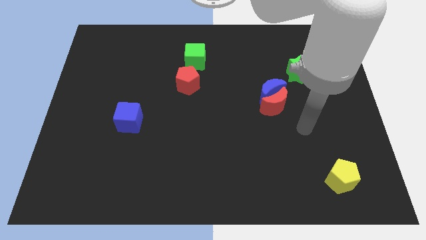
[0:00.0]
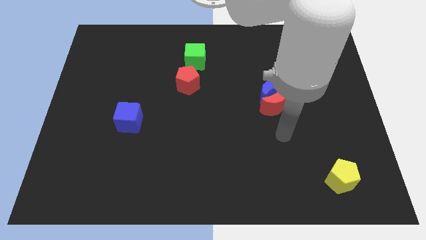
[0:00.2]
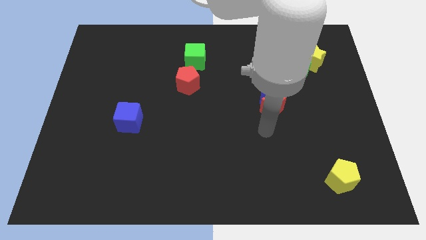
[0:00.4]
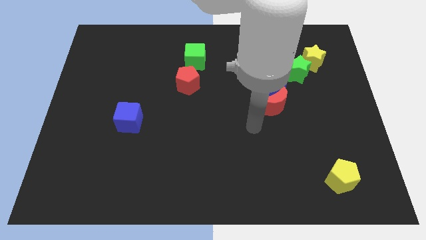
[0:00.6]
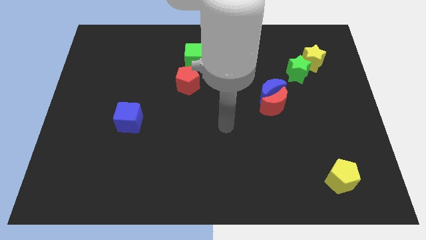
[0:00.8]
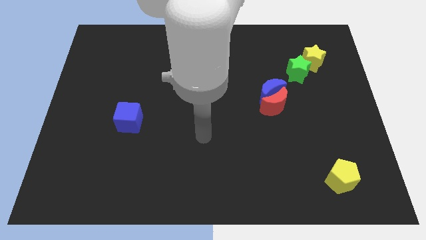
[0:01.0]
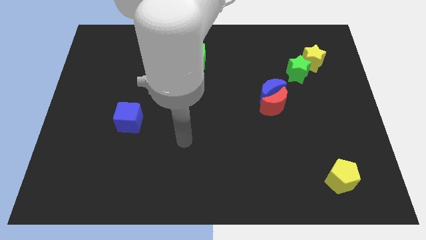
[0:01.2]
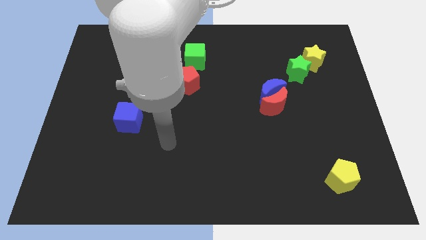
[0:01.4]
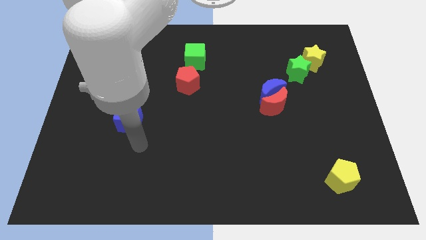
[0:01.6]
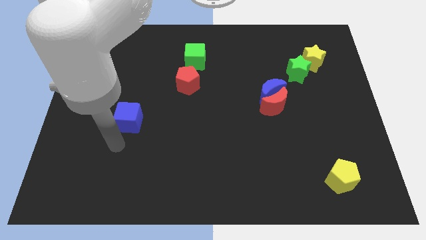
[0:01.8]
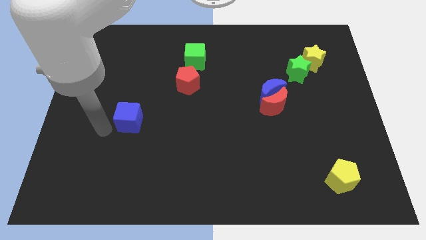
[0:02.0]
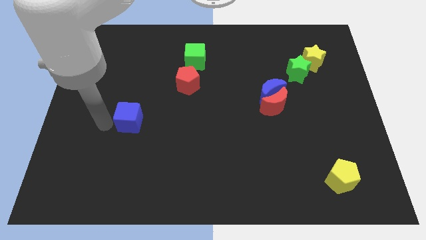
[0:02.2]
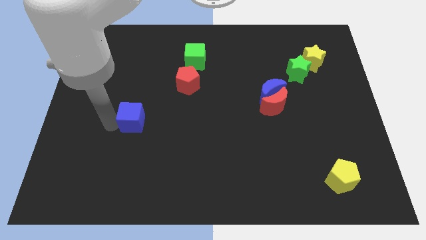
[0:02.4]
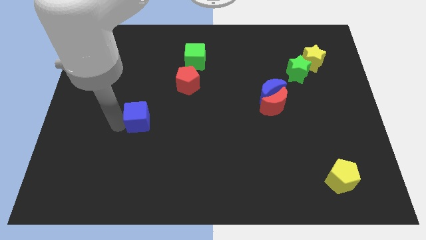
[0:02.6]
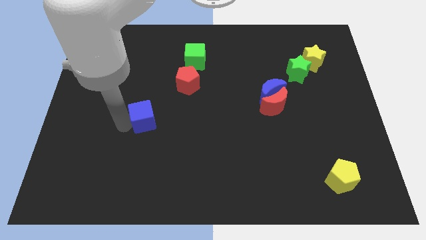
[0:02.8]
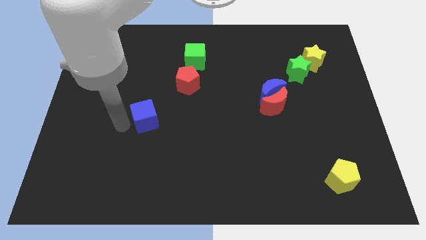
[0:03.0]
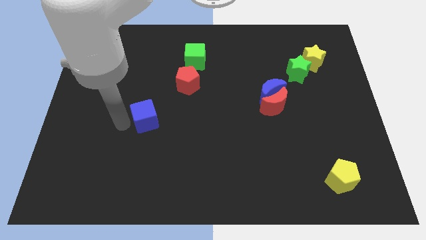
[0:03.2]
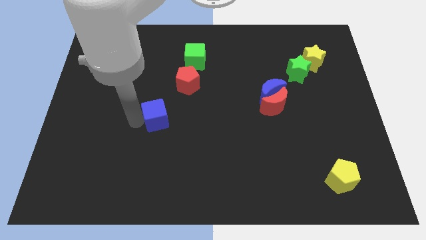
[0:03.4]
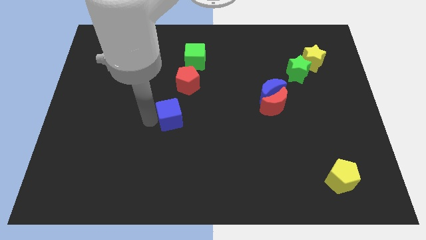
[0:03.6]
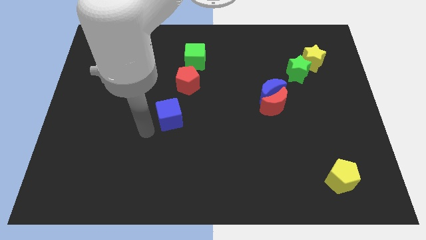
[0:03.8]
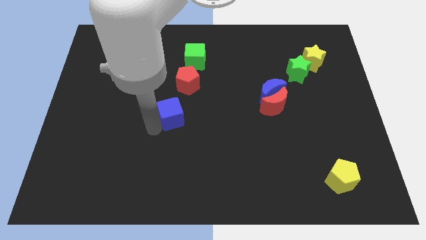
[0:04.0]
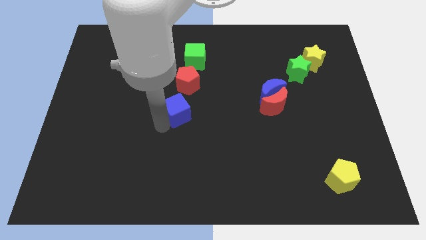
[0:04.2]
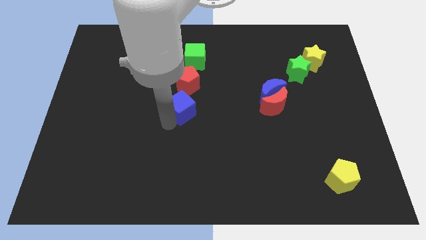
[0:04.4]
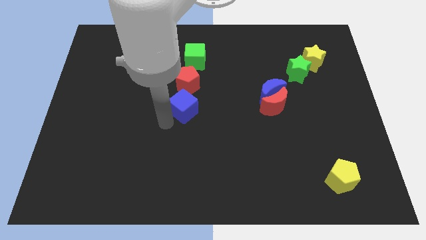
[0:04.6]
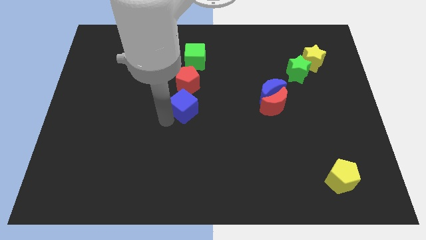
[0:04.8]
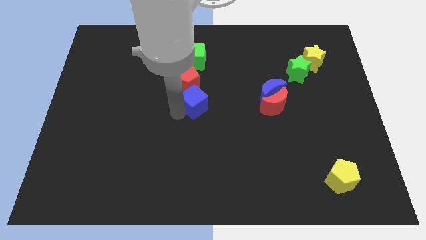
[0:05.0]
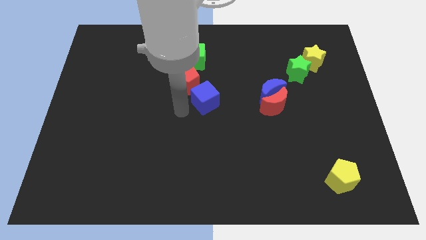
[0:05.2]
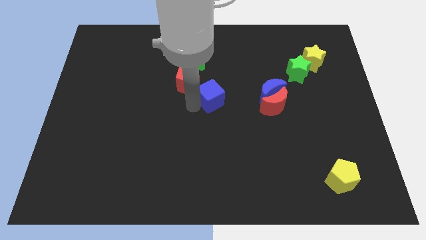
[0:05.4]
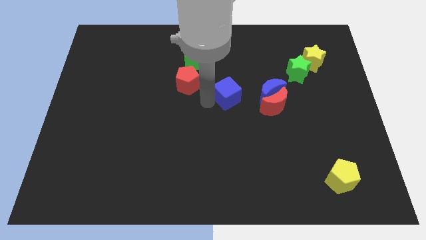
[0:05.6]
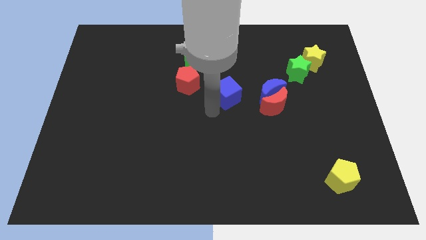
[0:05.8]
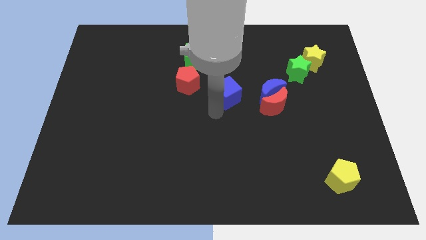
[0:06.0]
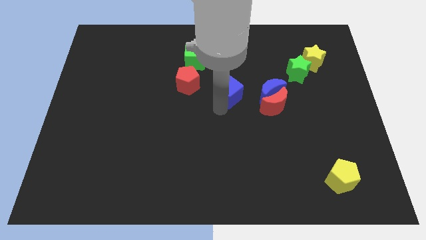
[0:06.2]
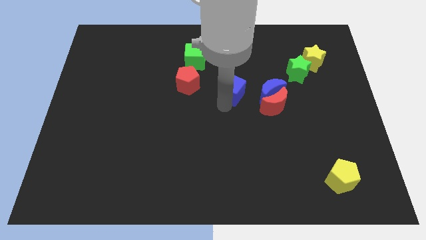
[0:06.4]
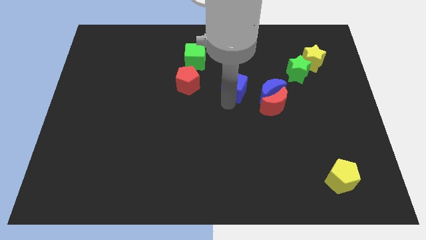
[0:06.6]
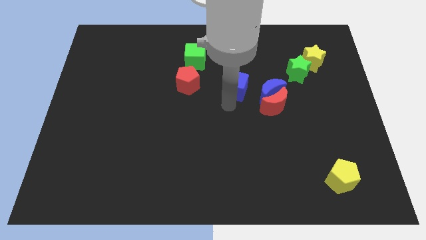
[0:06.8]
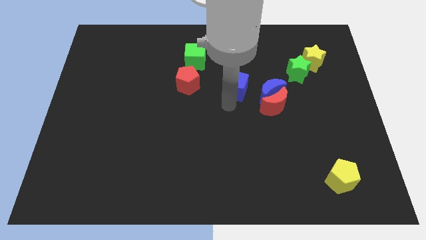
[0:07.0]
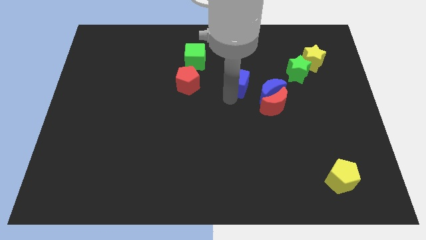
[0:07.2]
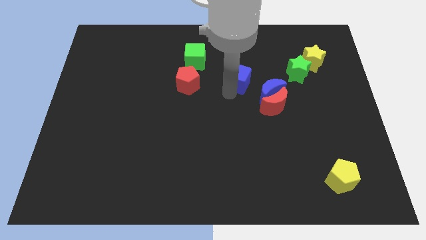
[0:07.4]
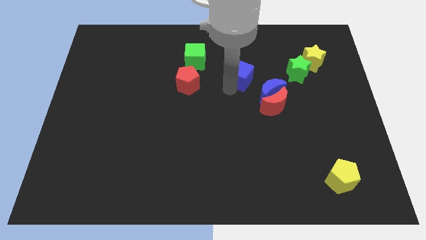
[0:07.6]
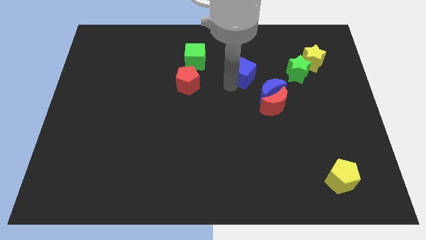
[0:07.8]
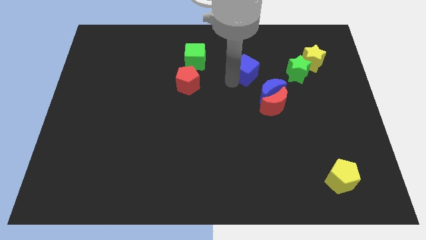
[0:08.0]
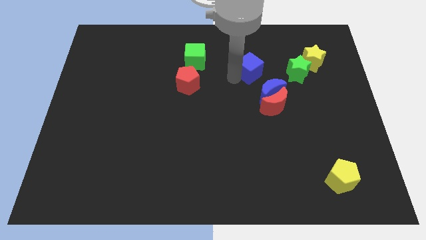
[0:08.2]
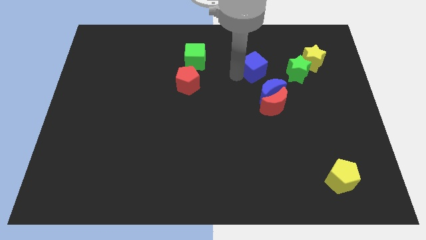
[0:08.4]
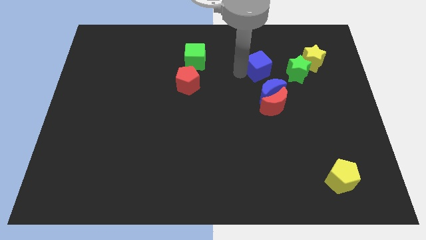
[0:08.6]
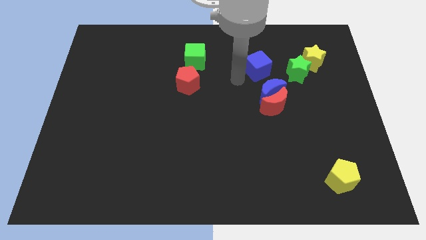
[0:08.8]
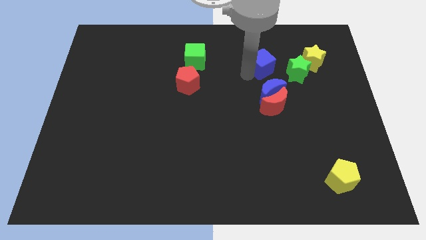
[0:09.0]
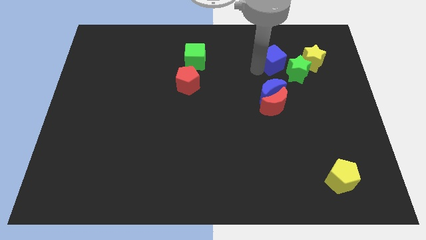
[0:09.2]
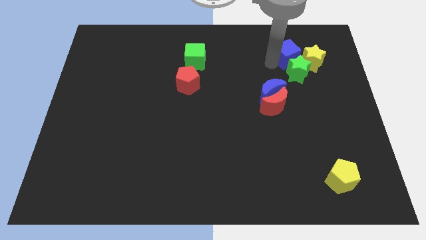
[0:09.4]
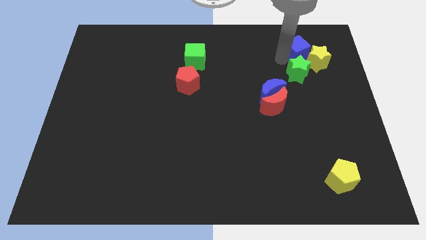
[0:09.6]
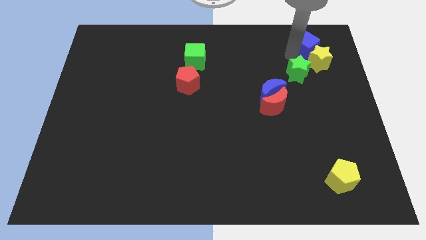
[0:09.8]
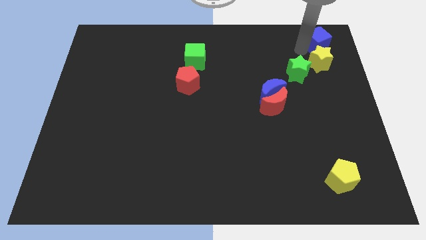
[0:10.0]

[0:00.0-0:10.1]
slide the blue cube to the top right corner
